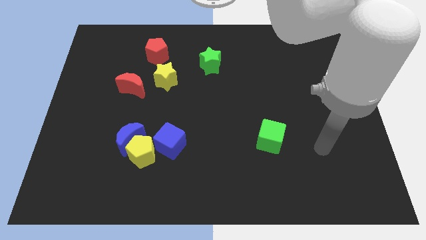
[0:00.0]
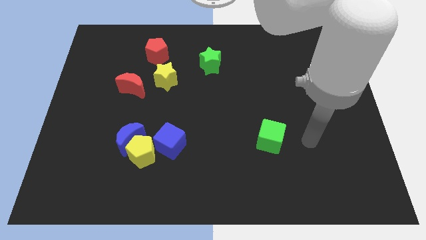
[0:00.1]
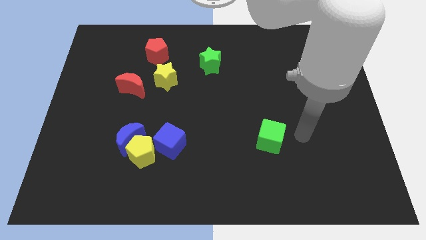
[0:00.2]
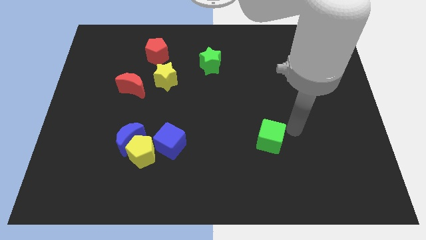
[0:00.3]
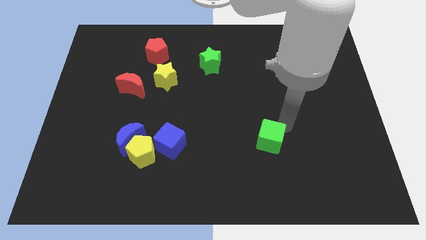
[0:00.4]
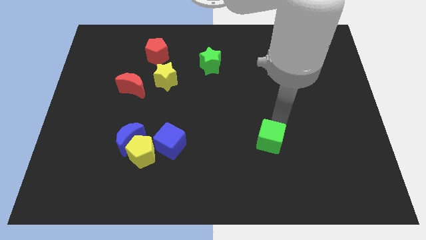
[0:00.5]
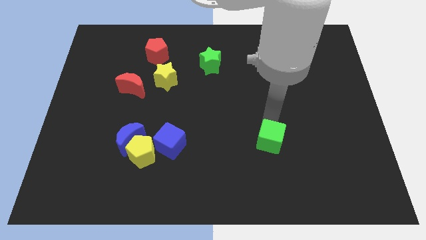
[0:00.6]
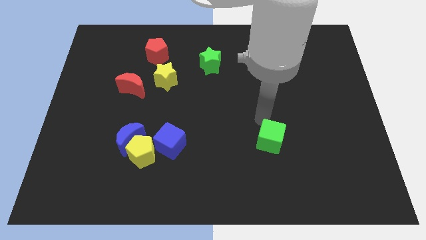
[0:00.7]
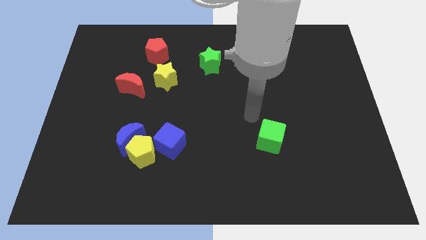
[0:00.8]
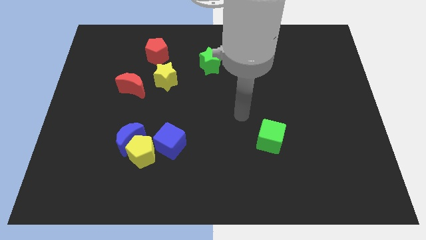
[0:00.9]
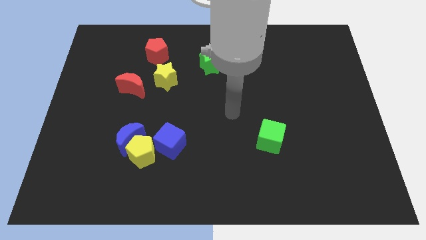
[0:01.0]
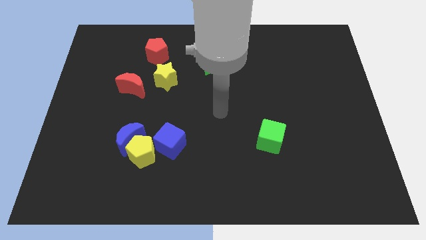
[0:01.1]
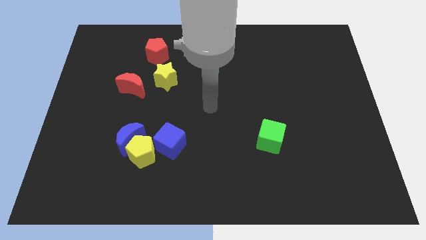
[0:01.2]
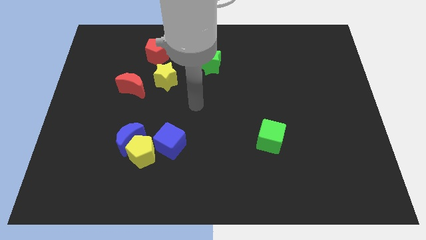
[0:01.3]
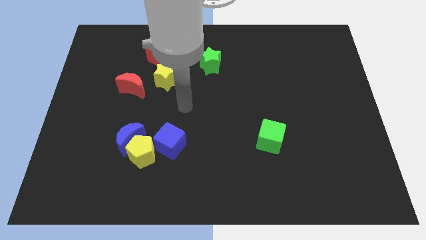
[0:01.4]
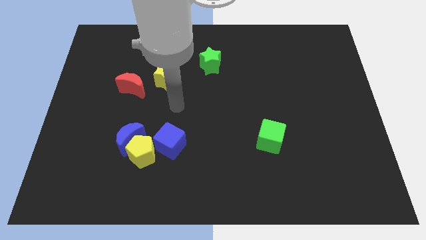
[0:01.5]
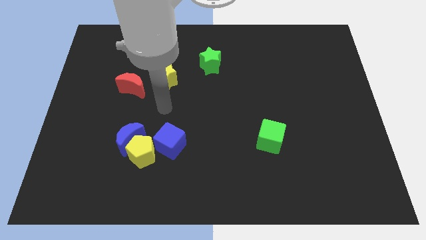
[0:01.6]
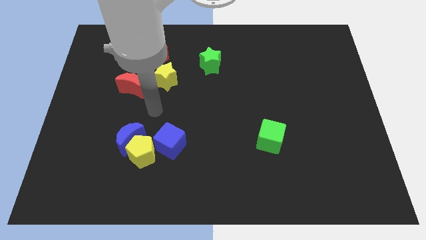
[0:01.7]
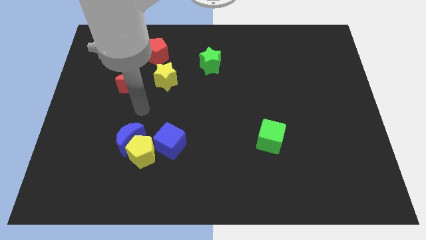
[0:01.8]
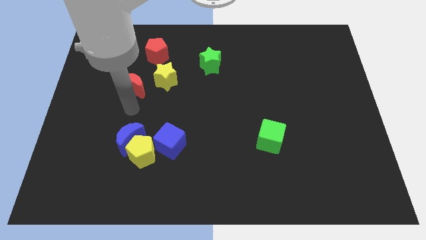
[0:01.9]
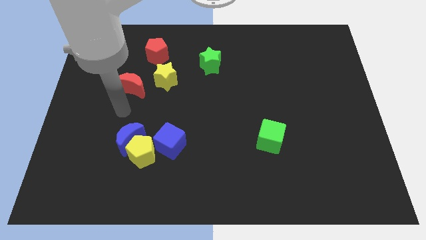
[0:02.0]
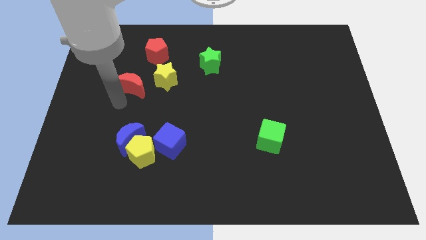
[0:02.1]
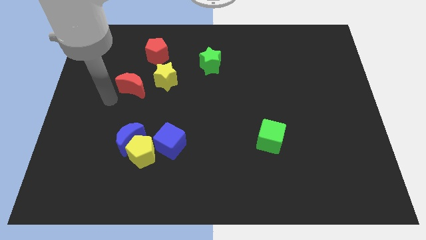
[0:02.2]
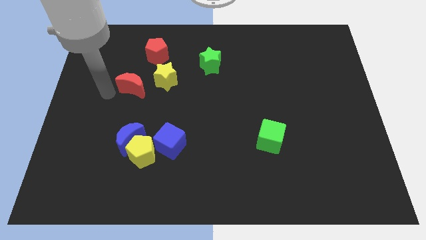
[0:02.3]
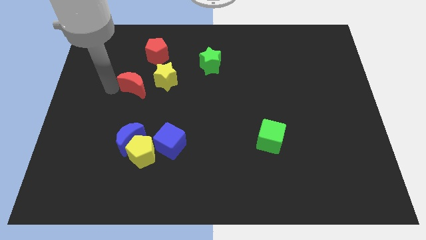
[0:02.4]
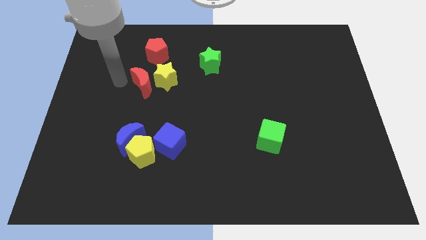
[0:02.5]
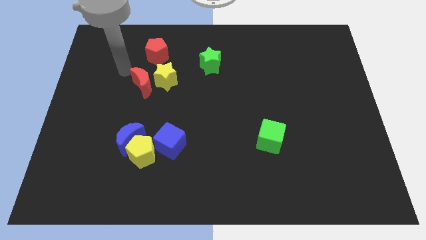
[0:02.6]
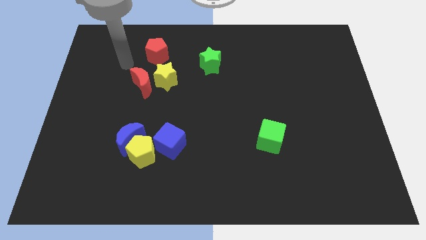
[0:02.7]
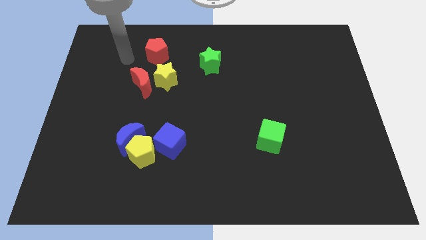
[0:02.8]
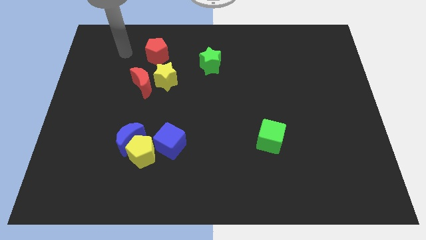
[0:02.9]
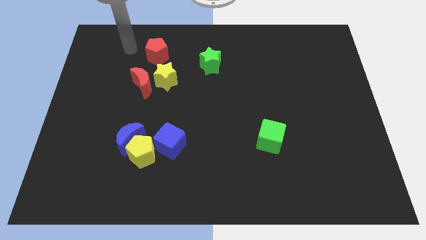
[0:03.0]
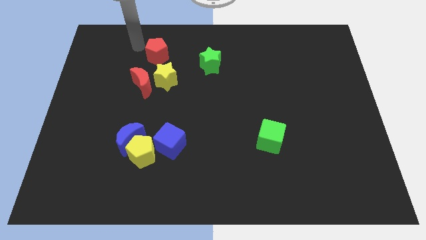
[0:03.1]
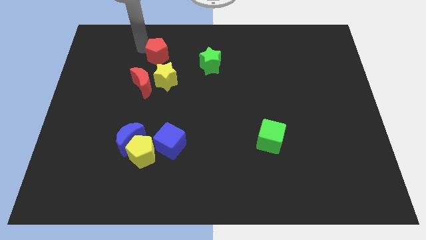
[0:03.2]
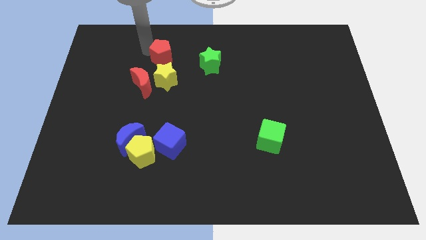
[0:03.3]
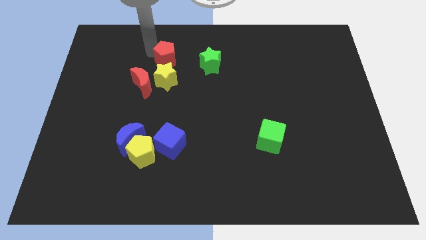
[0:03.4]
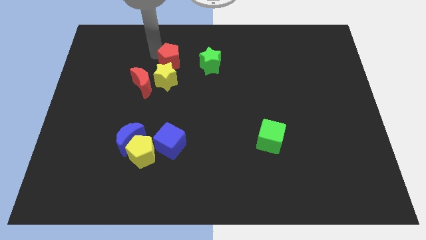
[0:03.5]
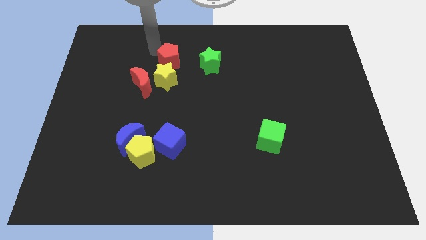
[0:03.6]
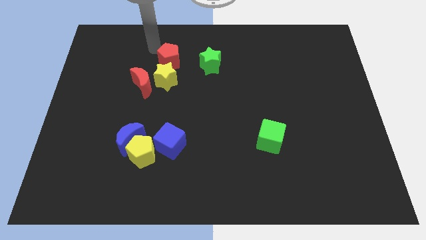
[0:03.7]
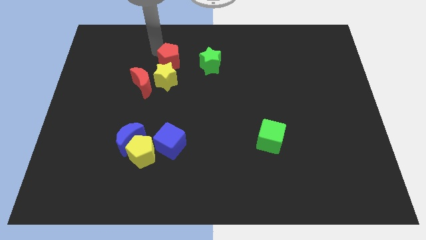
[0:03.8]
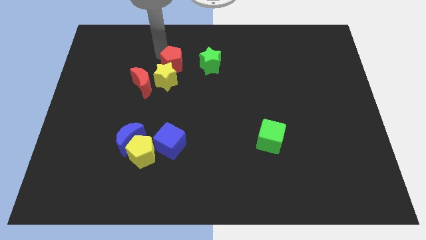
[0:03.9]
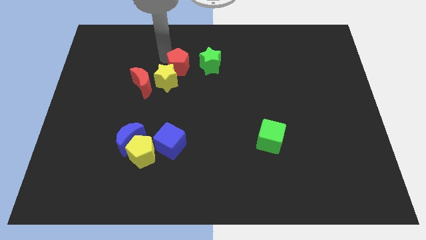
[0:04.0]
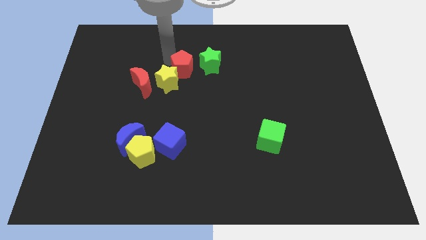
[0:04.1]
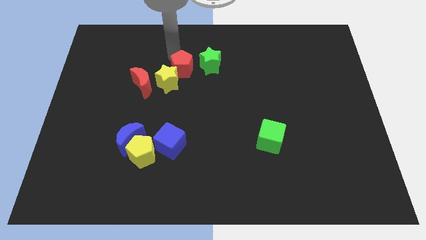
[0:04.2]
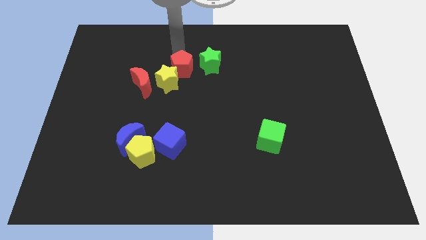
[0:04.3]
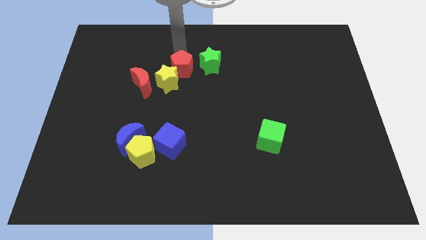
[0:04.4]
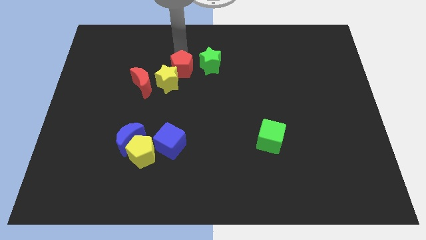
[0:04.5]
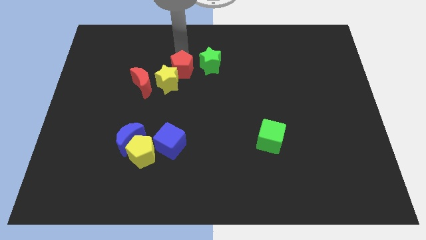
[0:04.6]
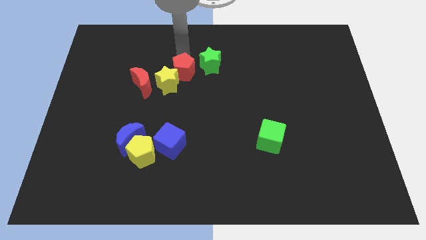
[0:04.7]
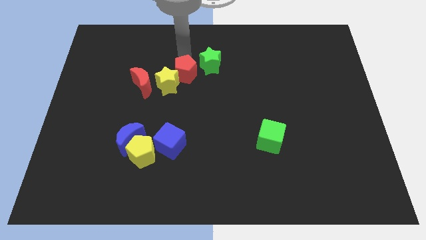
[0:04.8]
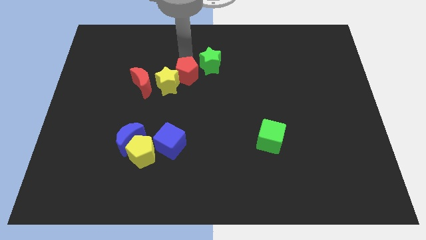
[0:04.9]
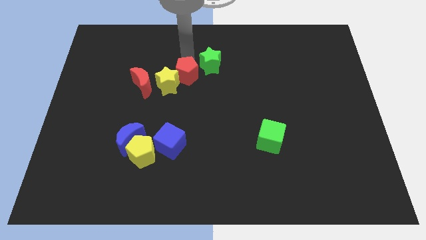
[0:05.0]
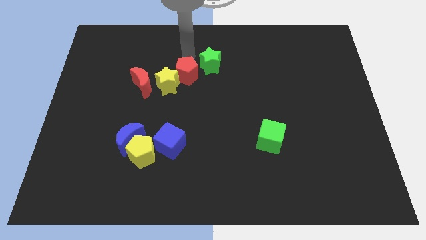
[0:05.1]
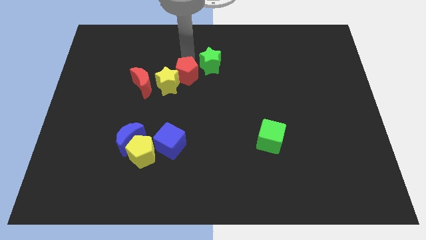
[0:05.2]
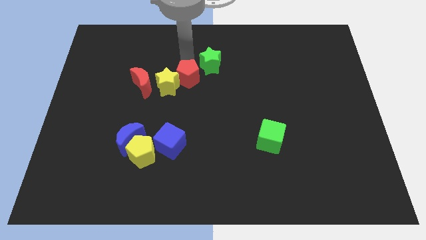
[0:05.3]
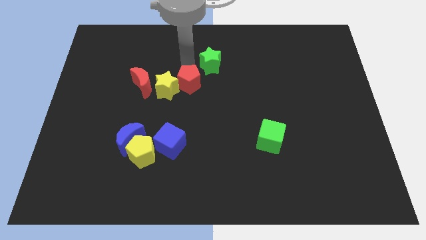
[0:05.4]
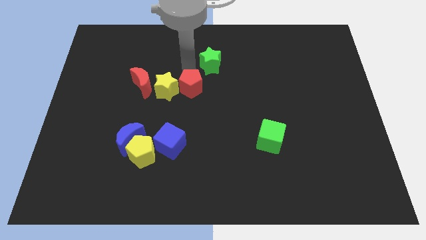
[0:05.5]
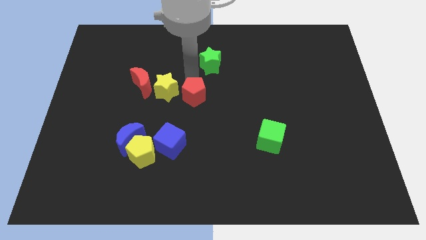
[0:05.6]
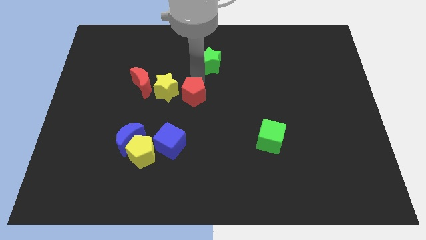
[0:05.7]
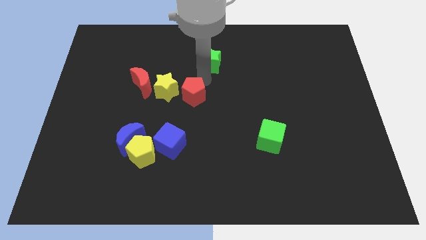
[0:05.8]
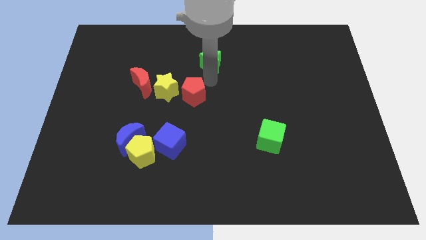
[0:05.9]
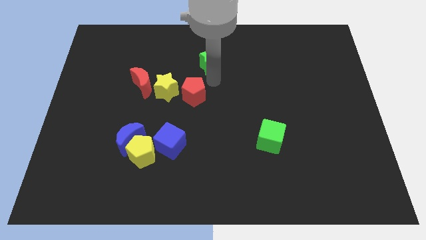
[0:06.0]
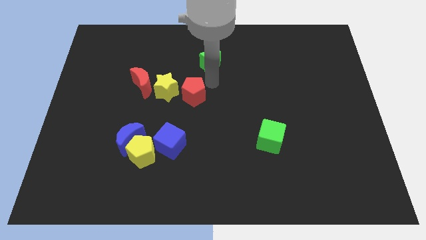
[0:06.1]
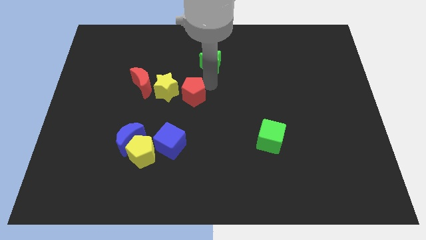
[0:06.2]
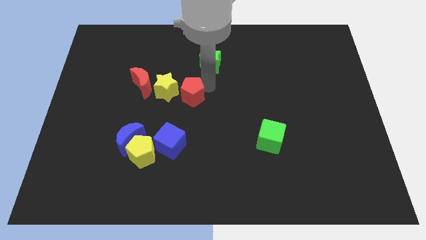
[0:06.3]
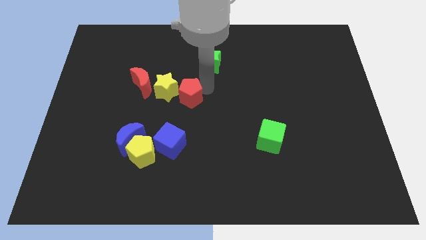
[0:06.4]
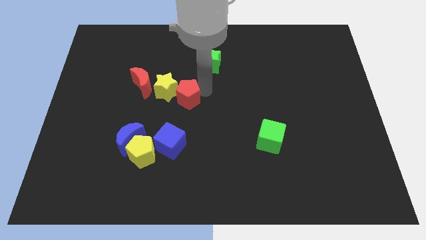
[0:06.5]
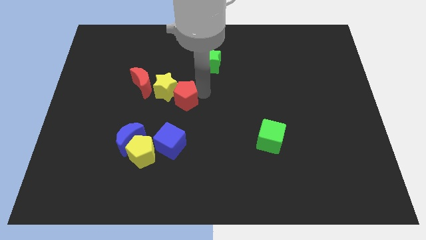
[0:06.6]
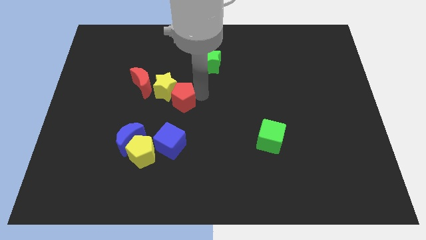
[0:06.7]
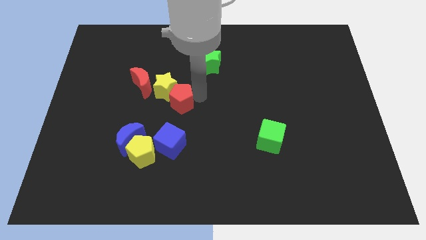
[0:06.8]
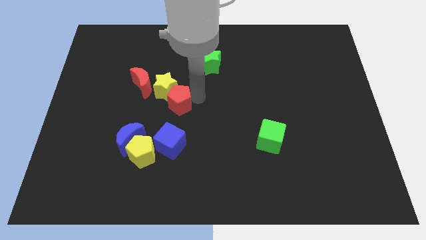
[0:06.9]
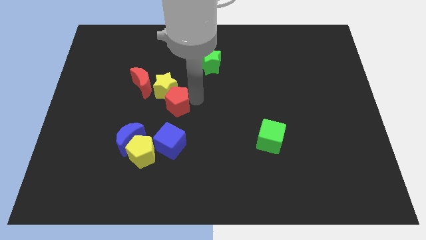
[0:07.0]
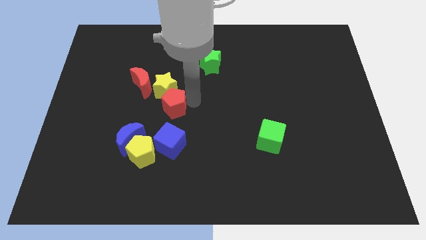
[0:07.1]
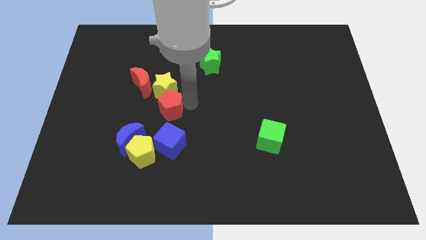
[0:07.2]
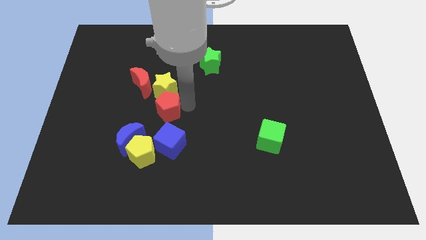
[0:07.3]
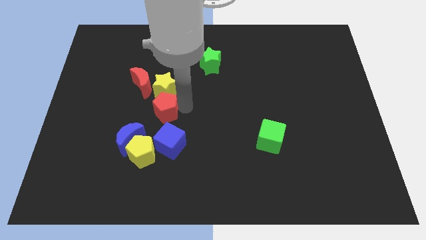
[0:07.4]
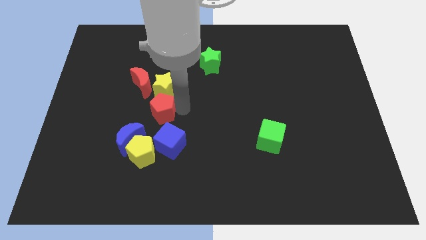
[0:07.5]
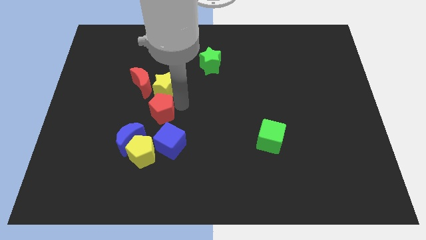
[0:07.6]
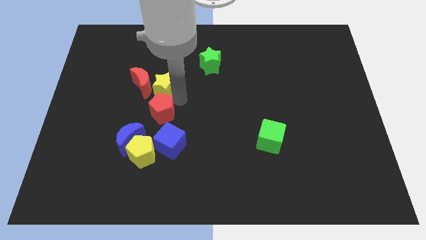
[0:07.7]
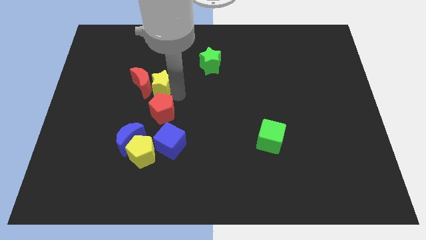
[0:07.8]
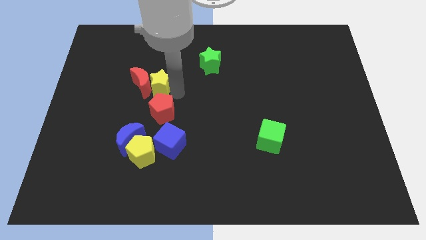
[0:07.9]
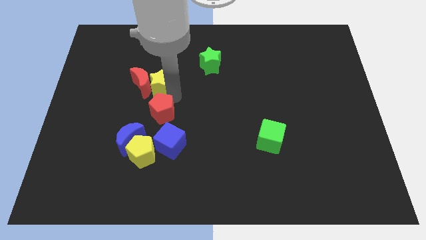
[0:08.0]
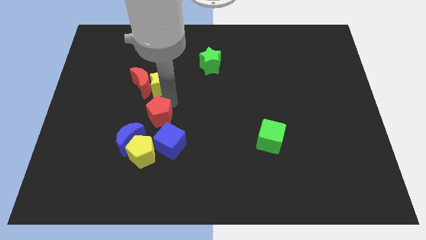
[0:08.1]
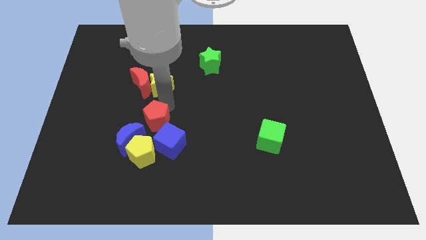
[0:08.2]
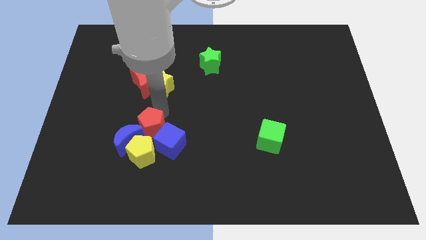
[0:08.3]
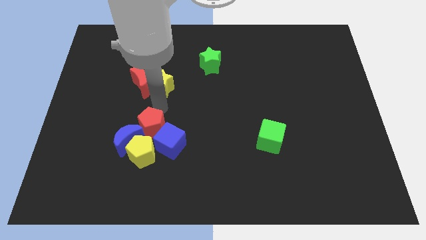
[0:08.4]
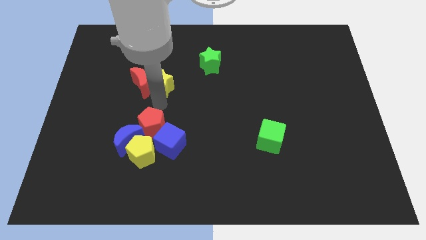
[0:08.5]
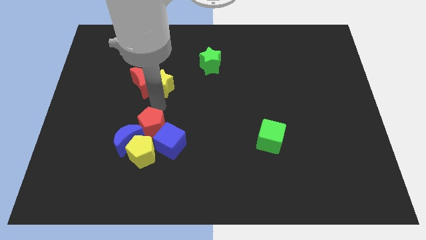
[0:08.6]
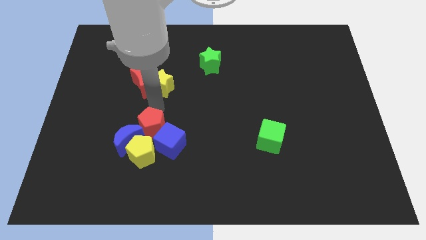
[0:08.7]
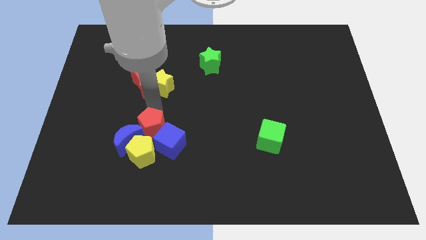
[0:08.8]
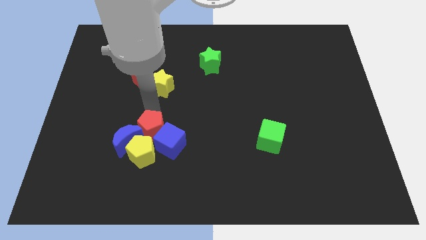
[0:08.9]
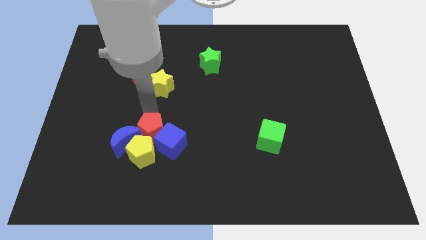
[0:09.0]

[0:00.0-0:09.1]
push the red pentagon close to the yellow pentagon
